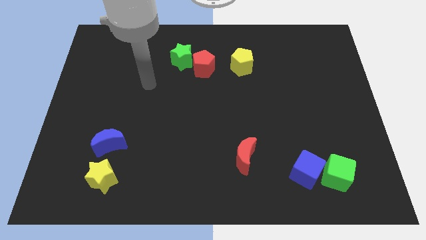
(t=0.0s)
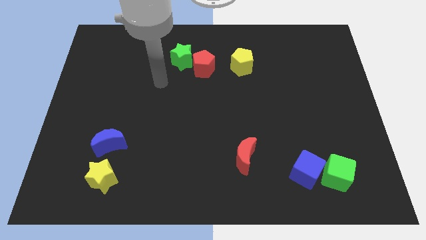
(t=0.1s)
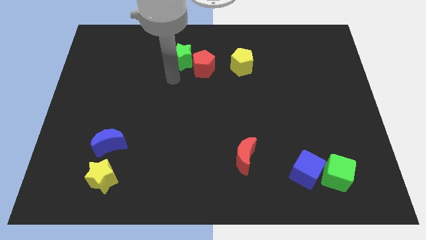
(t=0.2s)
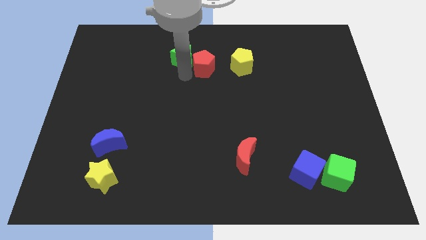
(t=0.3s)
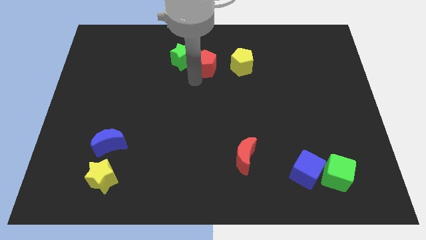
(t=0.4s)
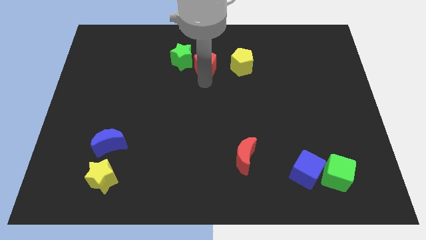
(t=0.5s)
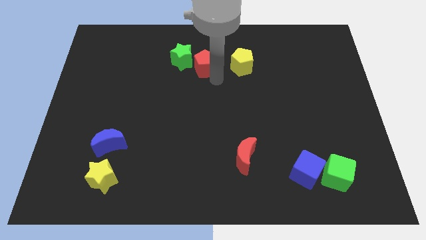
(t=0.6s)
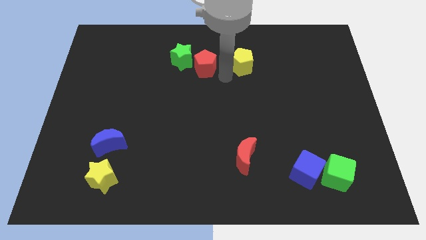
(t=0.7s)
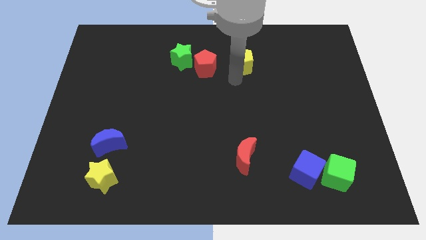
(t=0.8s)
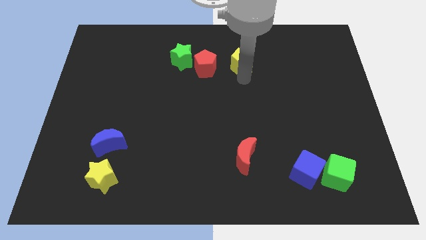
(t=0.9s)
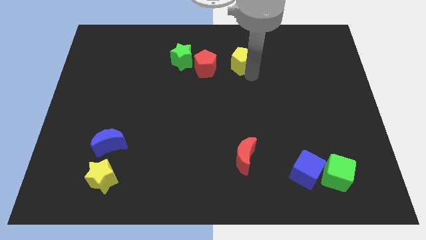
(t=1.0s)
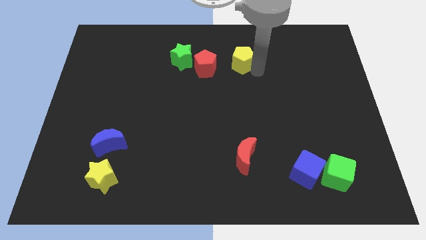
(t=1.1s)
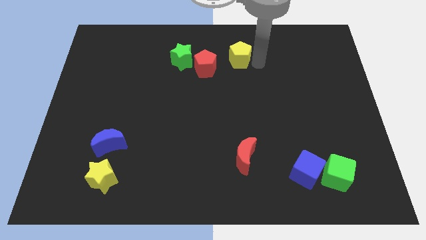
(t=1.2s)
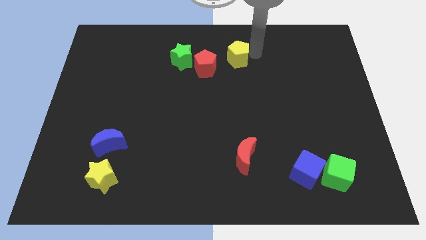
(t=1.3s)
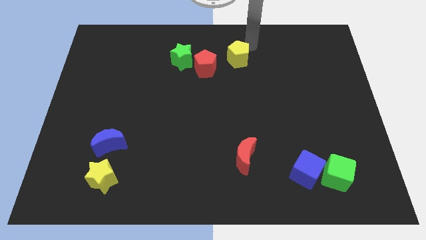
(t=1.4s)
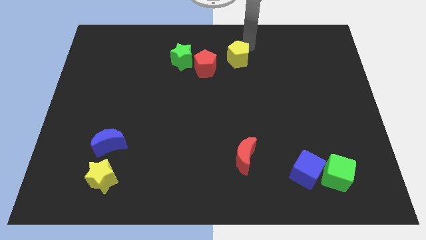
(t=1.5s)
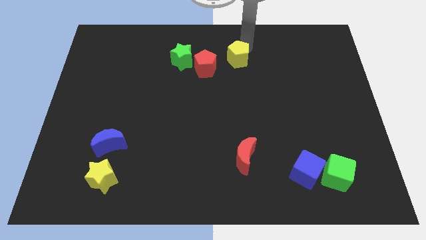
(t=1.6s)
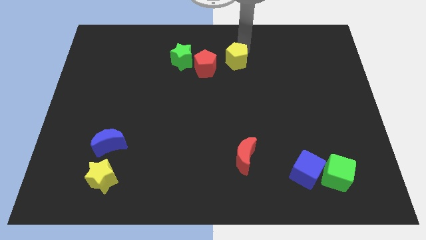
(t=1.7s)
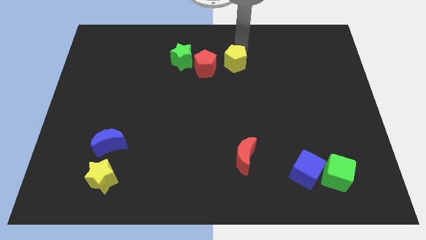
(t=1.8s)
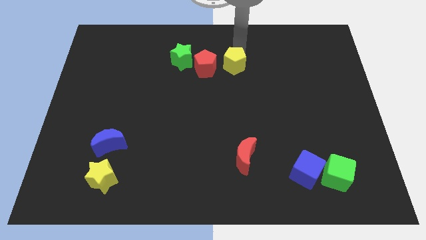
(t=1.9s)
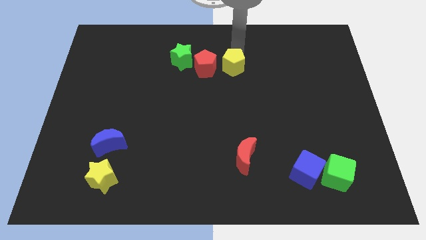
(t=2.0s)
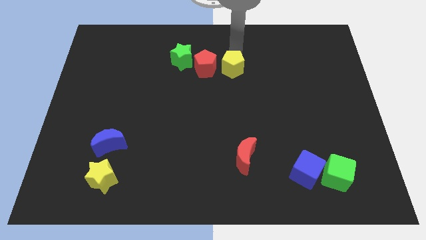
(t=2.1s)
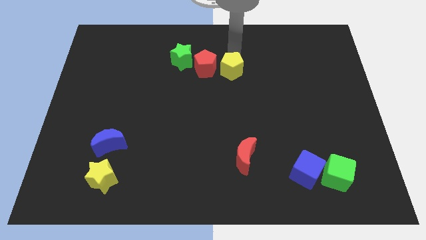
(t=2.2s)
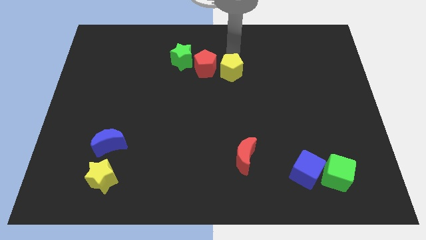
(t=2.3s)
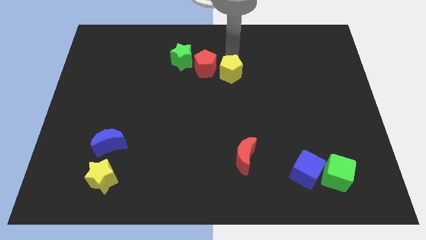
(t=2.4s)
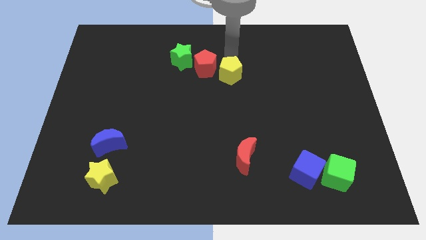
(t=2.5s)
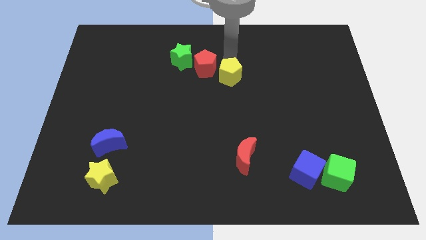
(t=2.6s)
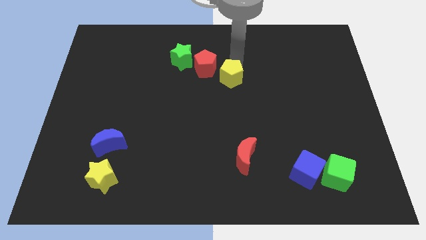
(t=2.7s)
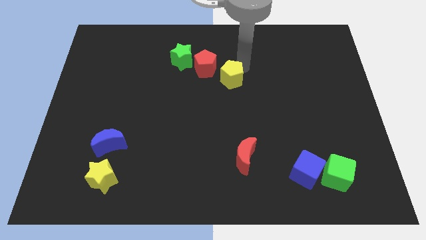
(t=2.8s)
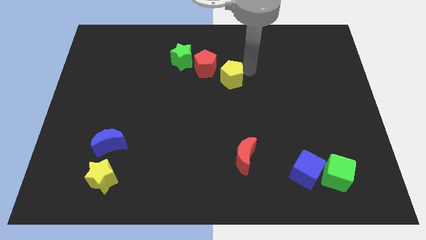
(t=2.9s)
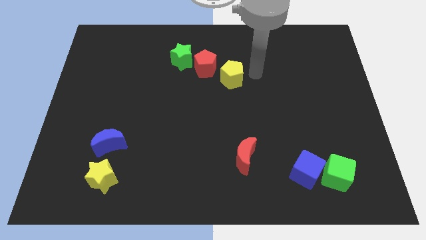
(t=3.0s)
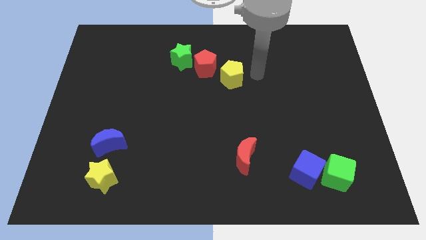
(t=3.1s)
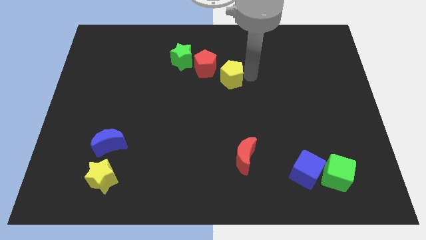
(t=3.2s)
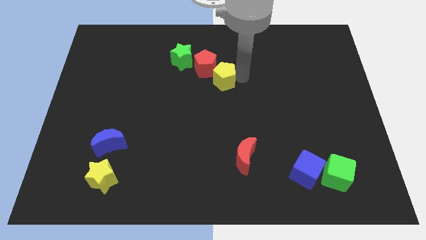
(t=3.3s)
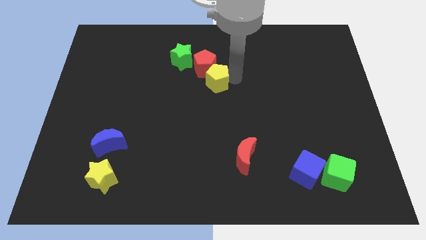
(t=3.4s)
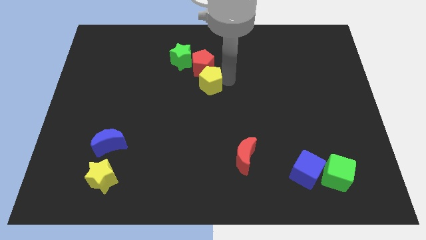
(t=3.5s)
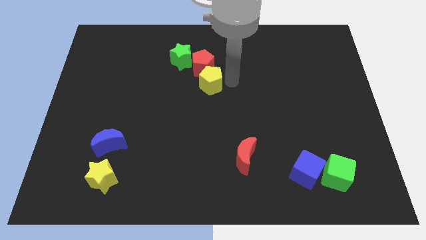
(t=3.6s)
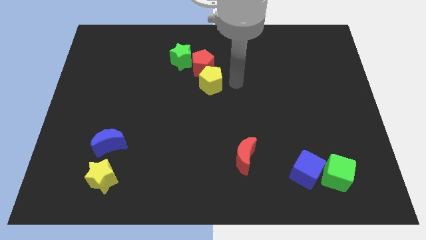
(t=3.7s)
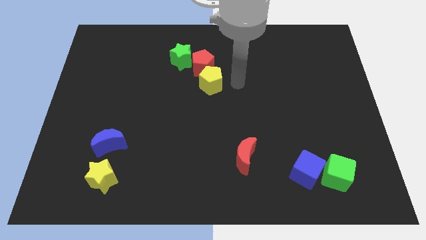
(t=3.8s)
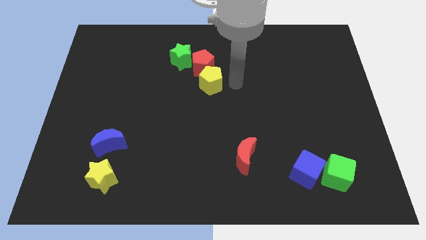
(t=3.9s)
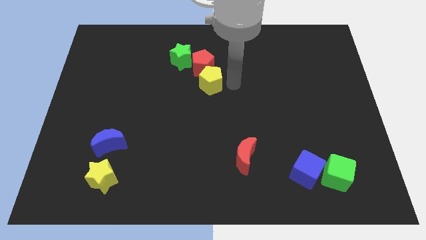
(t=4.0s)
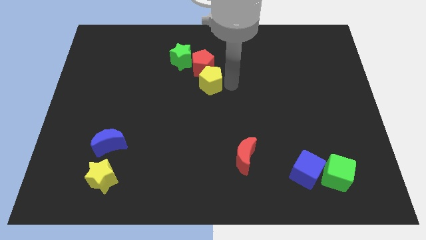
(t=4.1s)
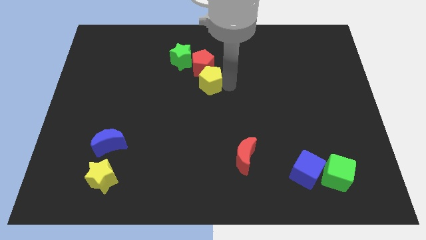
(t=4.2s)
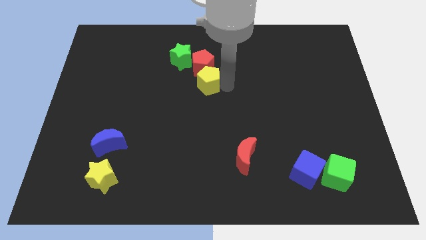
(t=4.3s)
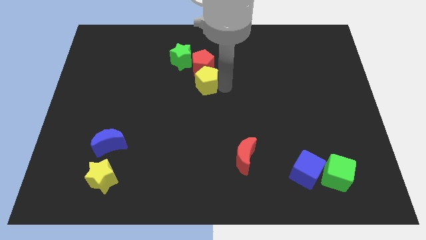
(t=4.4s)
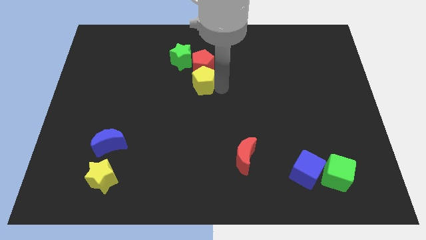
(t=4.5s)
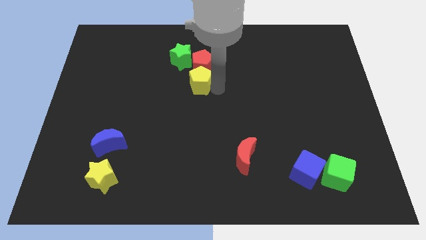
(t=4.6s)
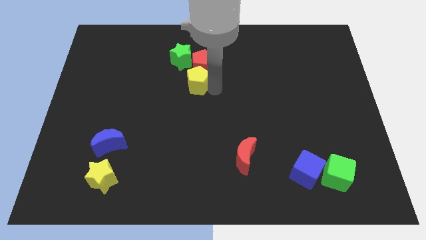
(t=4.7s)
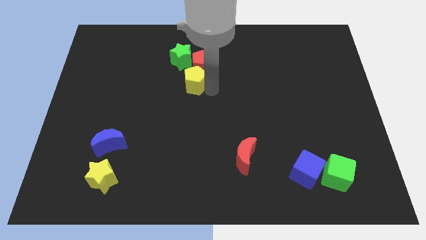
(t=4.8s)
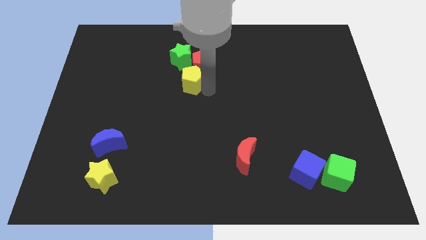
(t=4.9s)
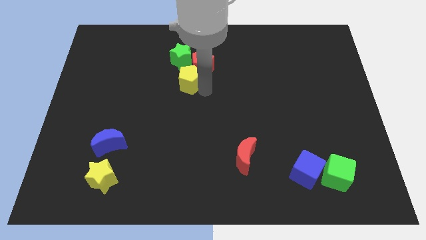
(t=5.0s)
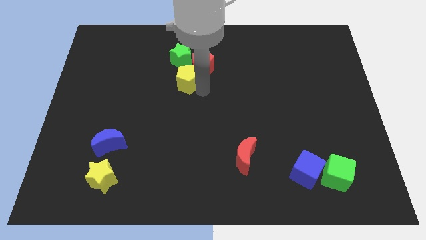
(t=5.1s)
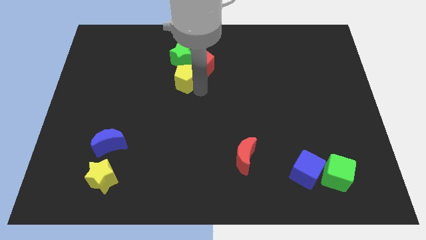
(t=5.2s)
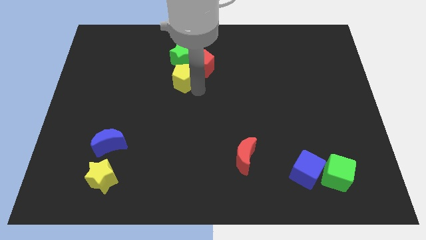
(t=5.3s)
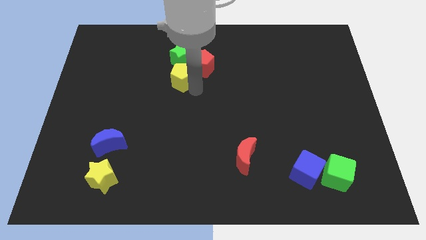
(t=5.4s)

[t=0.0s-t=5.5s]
move the yellow pentagon left of the red pentagon

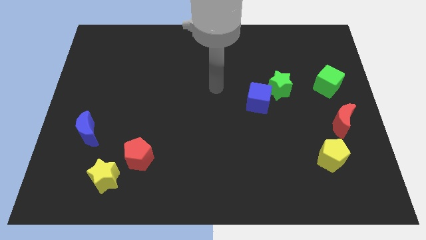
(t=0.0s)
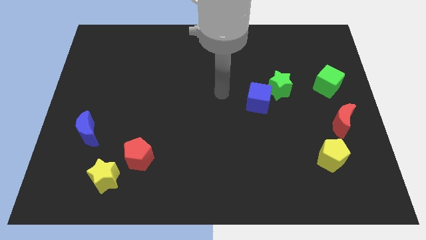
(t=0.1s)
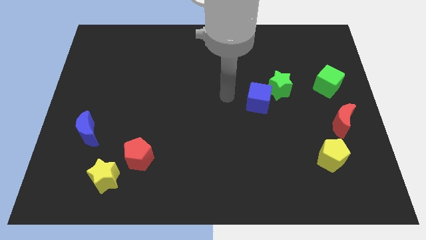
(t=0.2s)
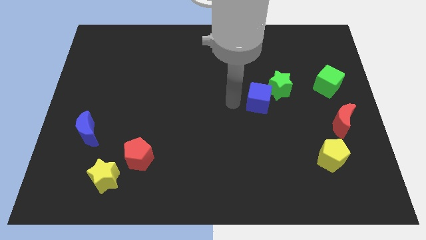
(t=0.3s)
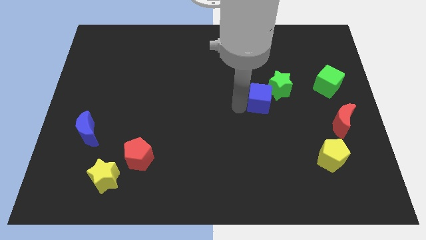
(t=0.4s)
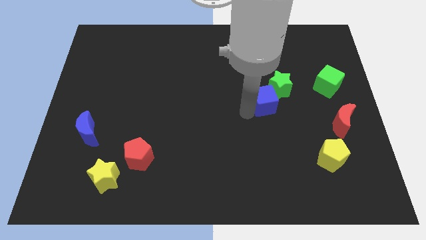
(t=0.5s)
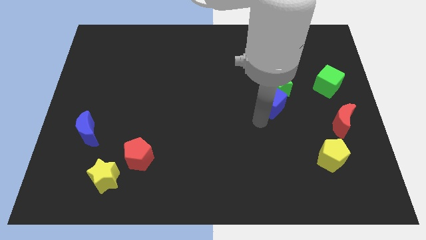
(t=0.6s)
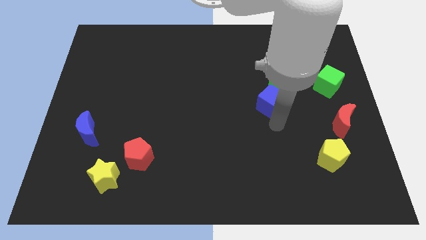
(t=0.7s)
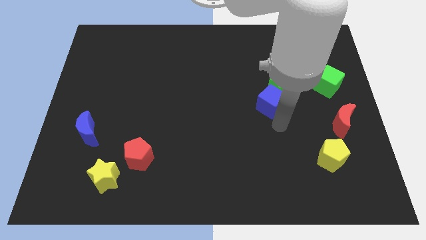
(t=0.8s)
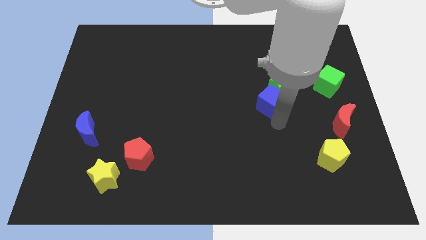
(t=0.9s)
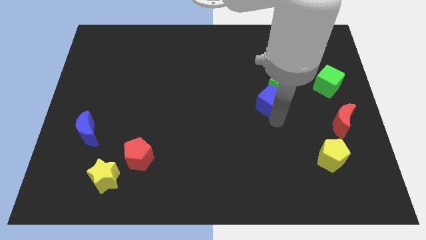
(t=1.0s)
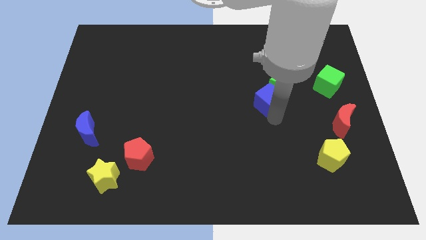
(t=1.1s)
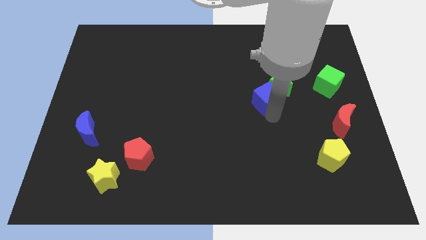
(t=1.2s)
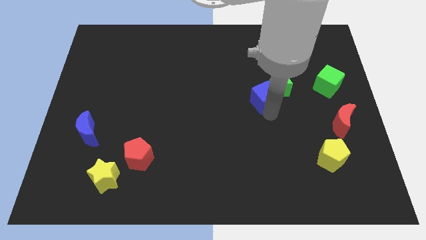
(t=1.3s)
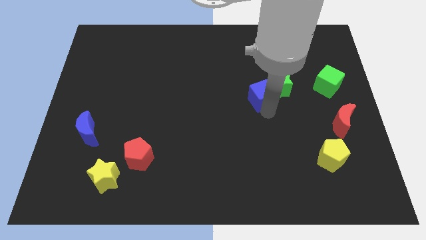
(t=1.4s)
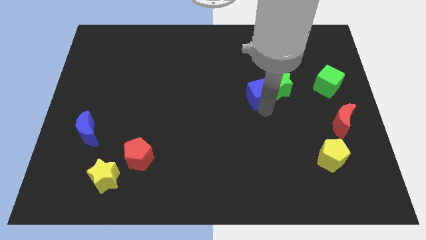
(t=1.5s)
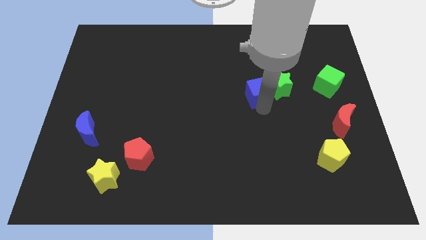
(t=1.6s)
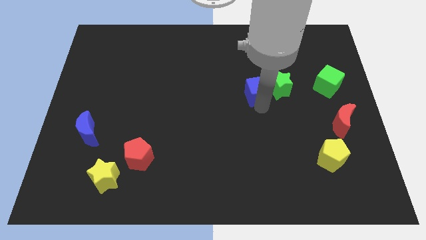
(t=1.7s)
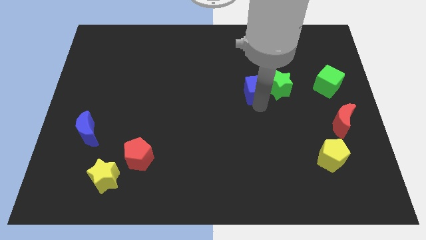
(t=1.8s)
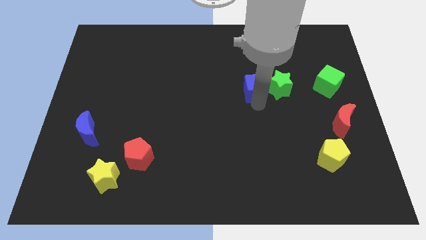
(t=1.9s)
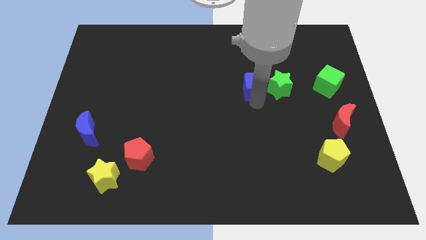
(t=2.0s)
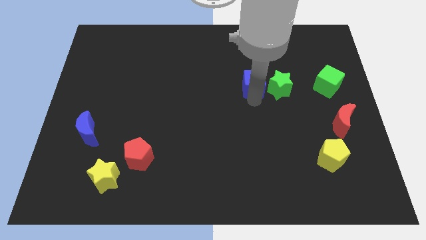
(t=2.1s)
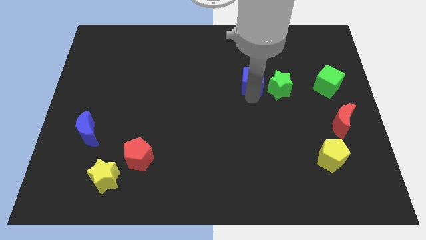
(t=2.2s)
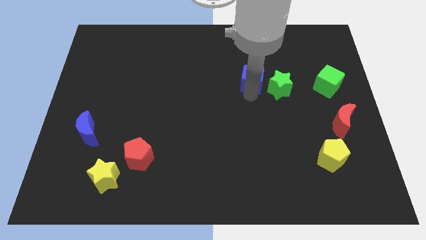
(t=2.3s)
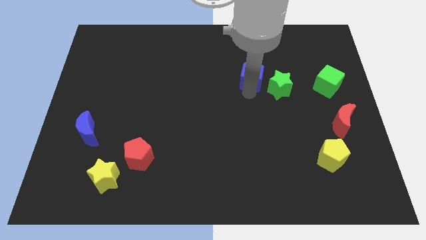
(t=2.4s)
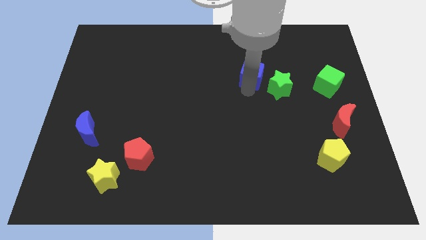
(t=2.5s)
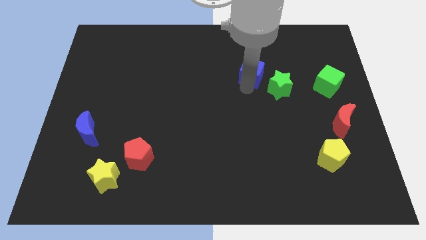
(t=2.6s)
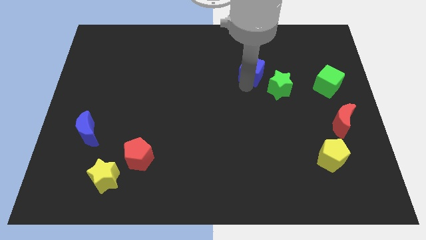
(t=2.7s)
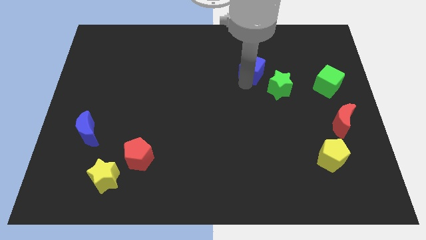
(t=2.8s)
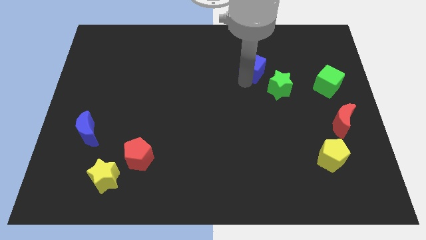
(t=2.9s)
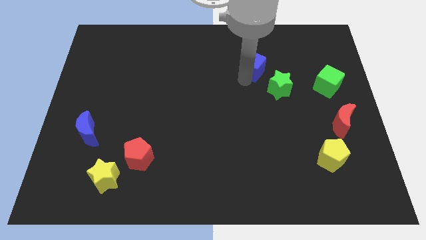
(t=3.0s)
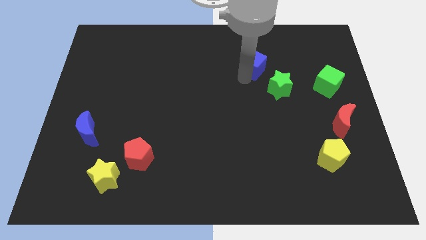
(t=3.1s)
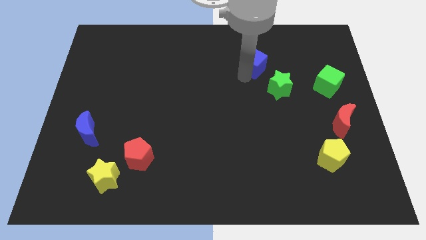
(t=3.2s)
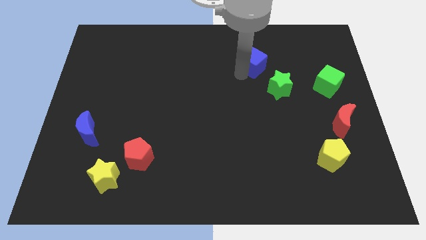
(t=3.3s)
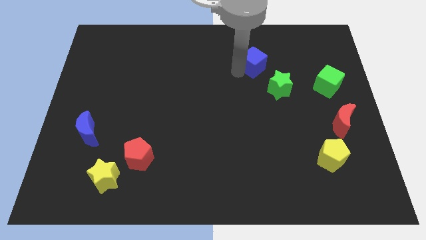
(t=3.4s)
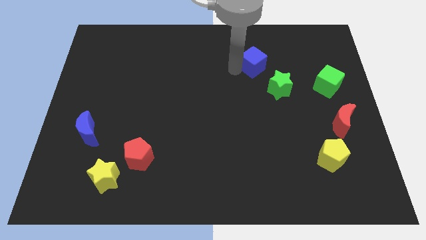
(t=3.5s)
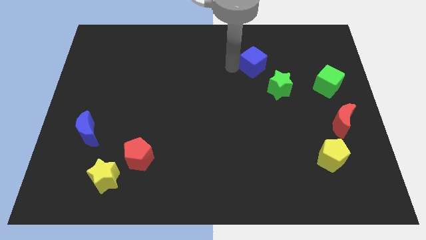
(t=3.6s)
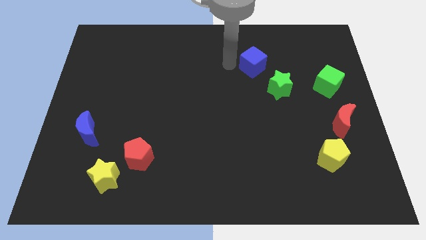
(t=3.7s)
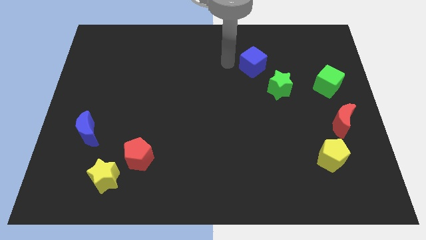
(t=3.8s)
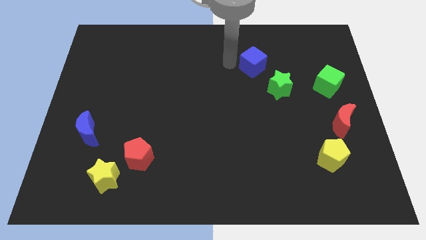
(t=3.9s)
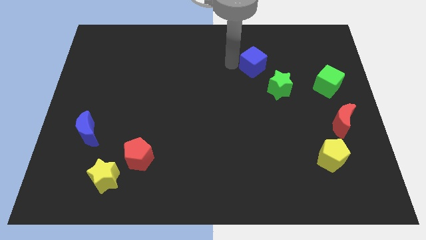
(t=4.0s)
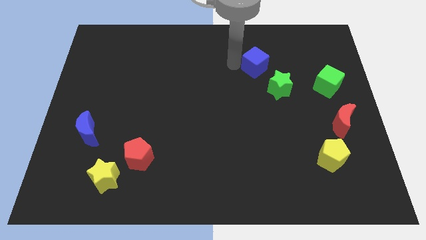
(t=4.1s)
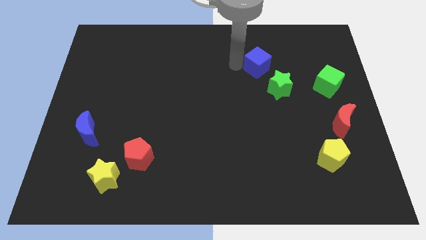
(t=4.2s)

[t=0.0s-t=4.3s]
move the blue cube to the top side of the green star
